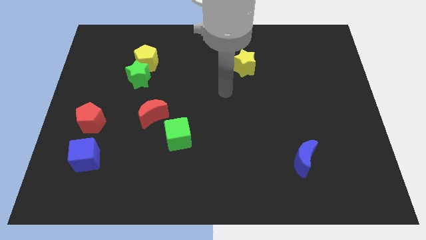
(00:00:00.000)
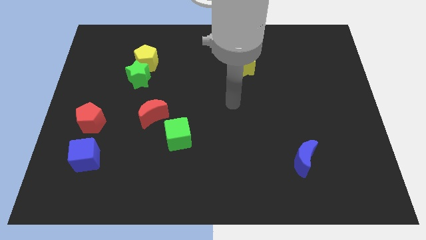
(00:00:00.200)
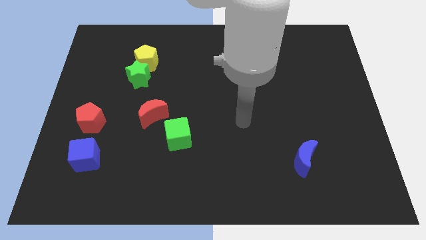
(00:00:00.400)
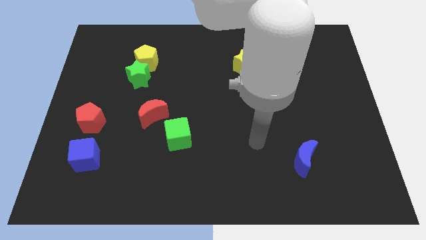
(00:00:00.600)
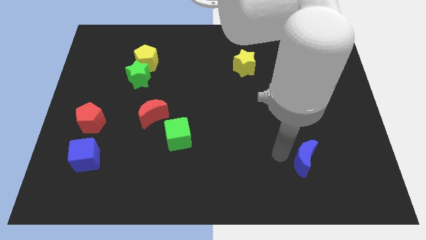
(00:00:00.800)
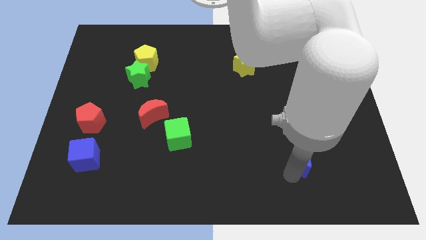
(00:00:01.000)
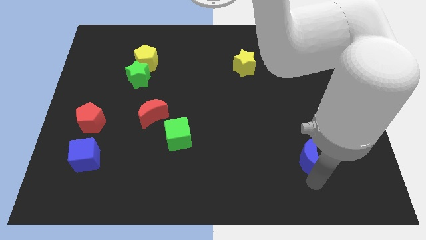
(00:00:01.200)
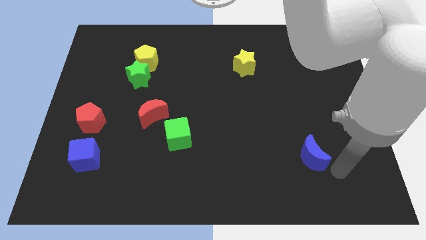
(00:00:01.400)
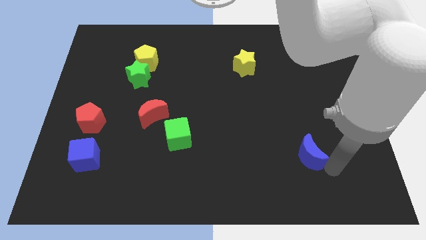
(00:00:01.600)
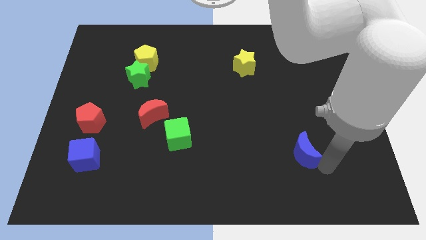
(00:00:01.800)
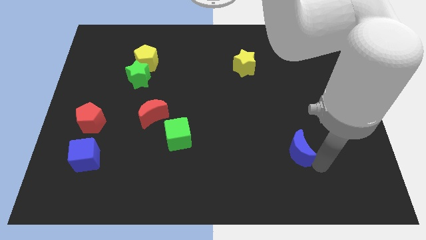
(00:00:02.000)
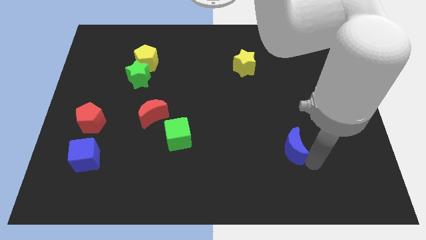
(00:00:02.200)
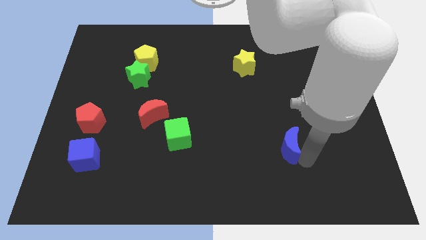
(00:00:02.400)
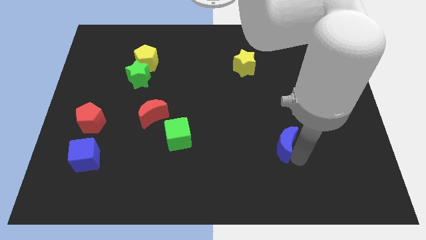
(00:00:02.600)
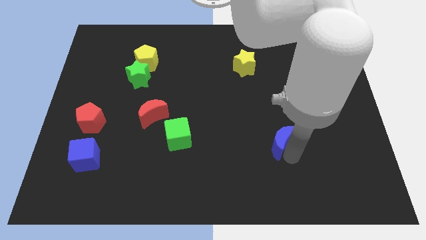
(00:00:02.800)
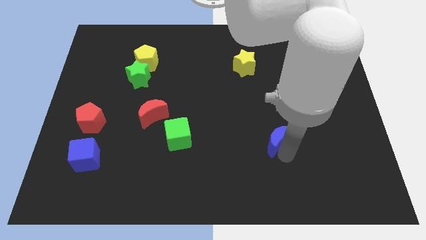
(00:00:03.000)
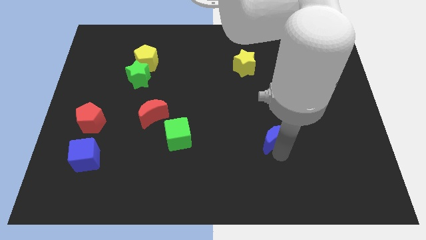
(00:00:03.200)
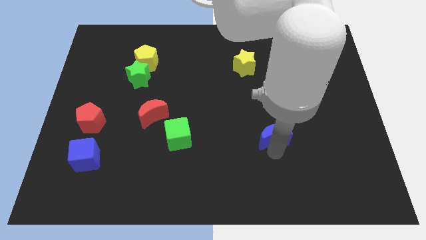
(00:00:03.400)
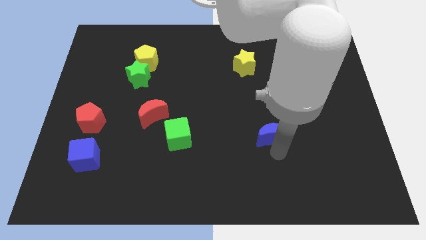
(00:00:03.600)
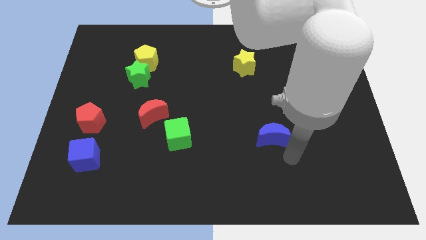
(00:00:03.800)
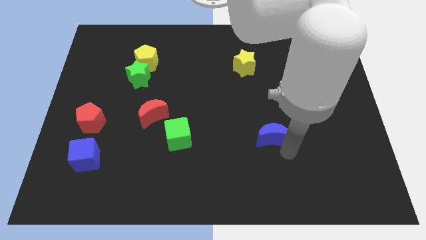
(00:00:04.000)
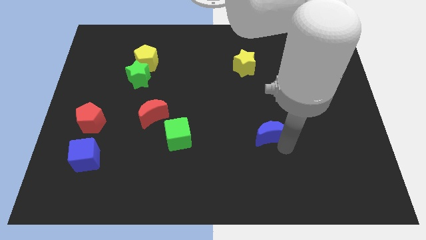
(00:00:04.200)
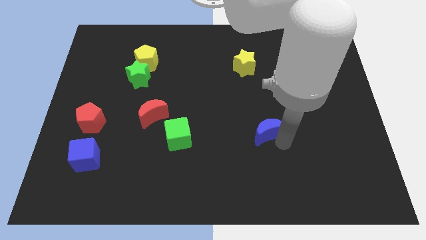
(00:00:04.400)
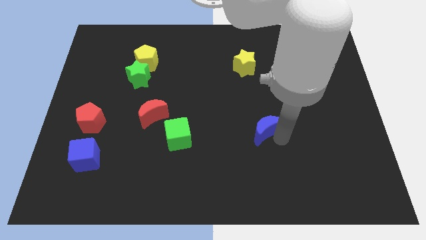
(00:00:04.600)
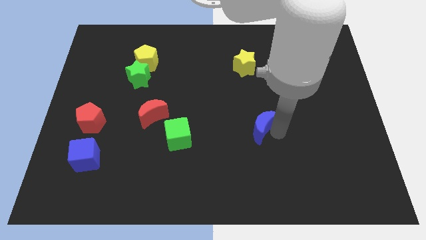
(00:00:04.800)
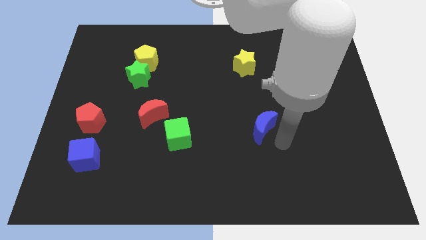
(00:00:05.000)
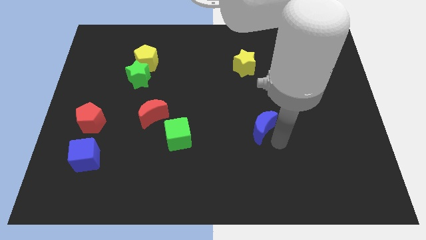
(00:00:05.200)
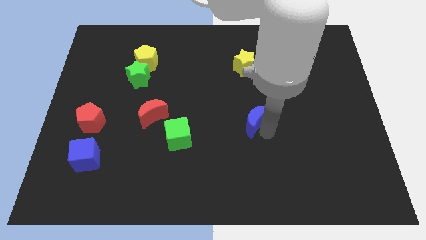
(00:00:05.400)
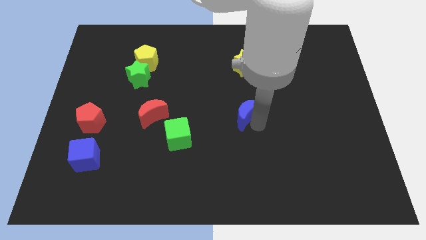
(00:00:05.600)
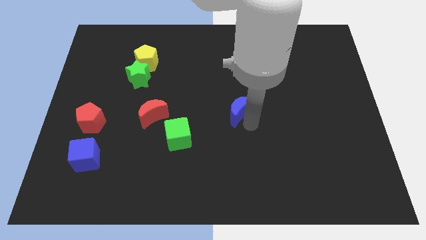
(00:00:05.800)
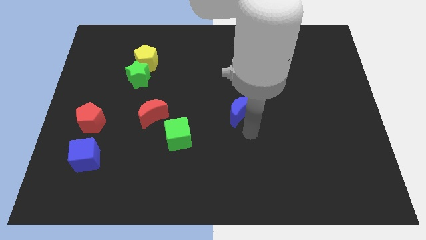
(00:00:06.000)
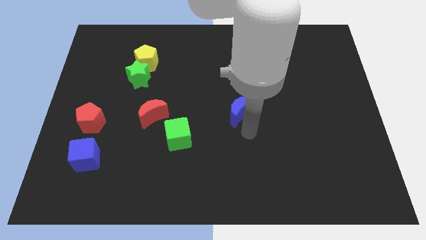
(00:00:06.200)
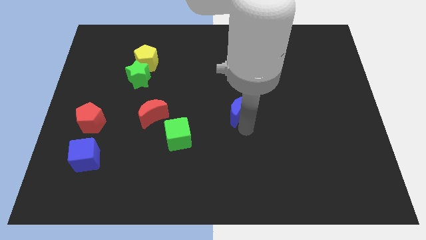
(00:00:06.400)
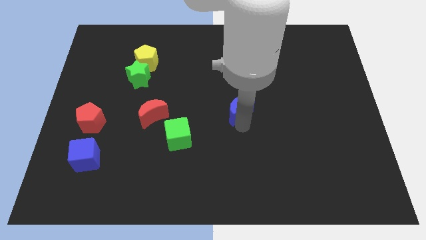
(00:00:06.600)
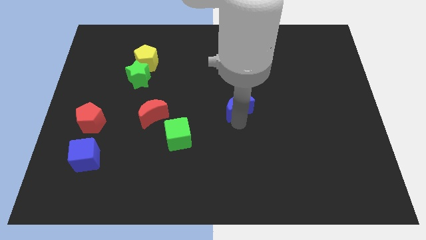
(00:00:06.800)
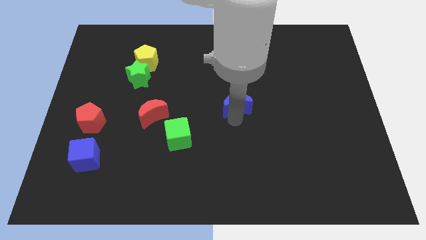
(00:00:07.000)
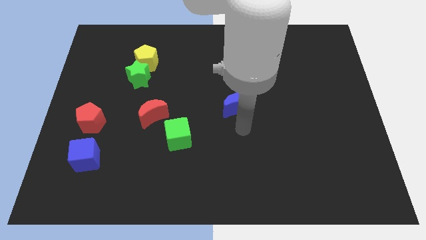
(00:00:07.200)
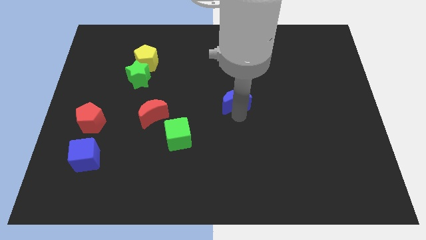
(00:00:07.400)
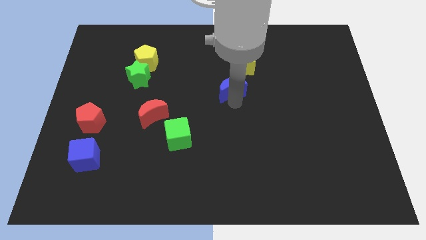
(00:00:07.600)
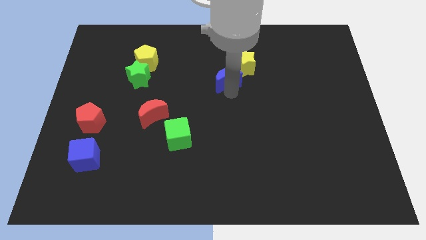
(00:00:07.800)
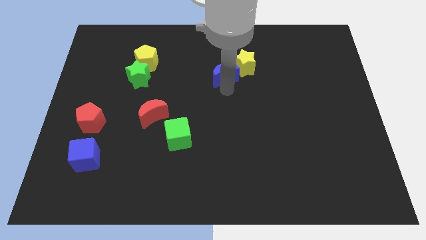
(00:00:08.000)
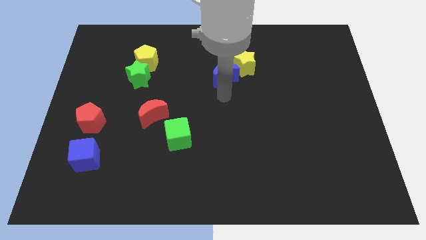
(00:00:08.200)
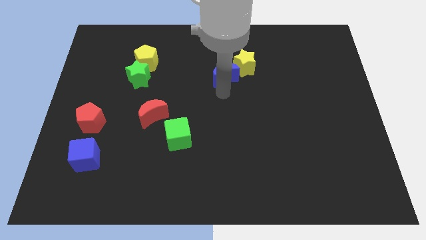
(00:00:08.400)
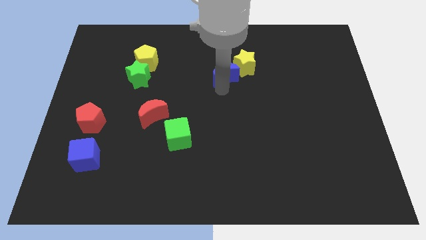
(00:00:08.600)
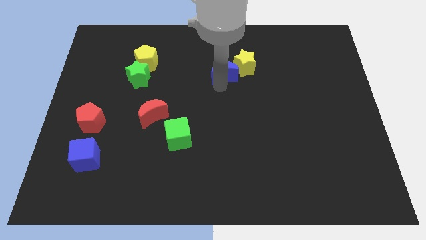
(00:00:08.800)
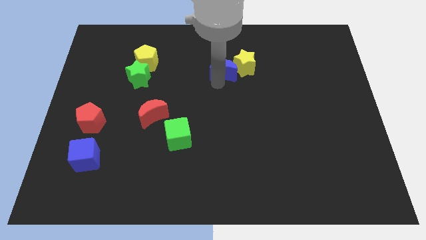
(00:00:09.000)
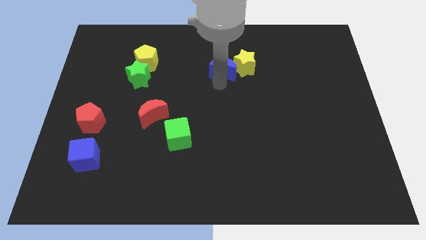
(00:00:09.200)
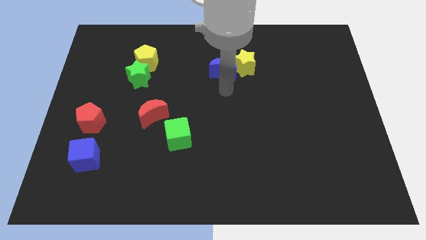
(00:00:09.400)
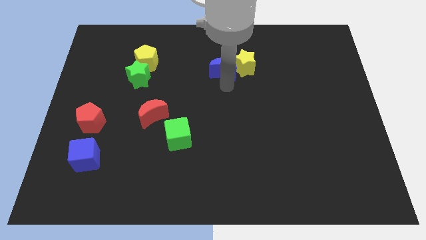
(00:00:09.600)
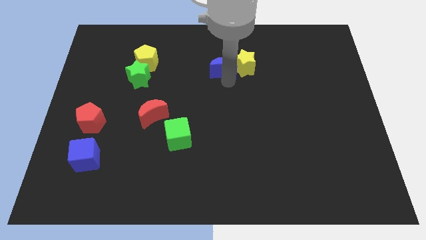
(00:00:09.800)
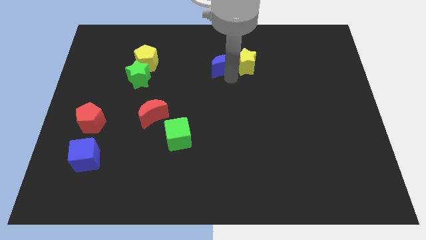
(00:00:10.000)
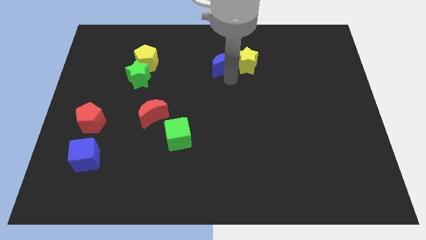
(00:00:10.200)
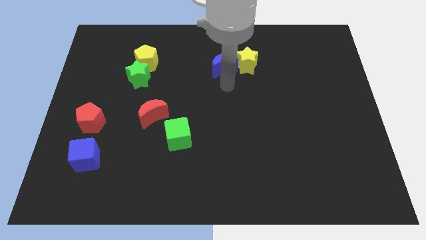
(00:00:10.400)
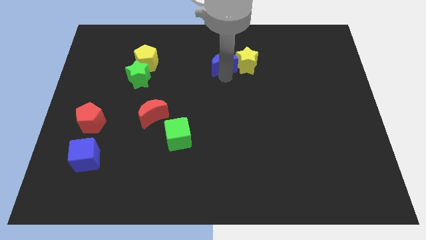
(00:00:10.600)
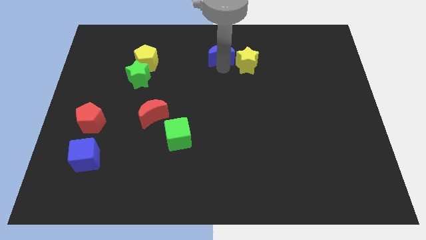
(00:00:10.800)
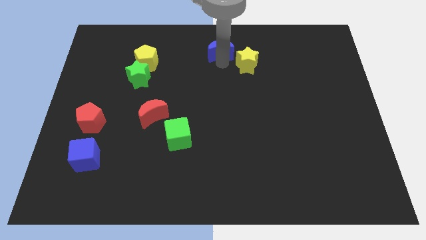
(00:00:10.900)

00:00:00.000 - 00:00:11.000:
move the blue moon to the top side
